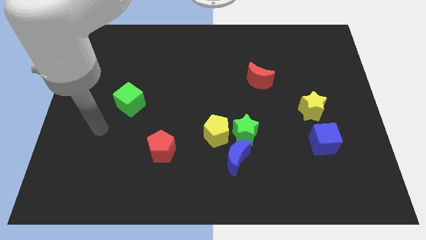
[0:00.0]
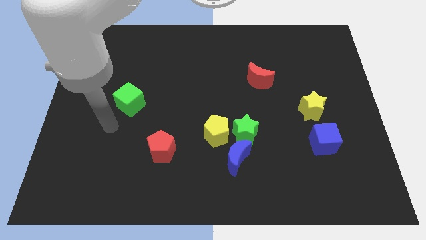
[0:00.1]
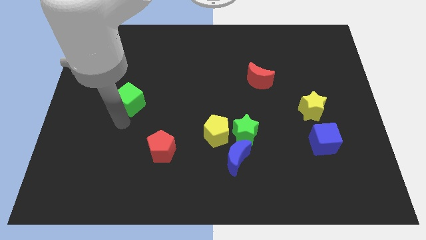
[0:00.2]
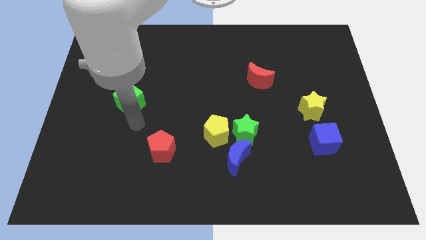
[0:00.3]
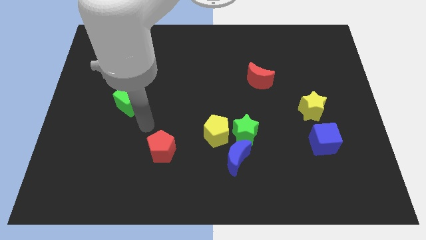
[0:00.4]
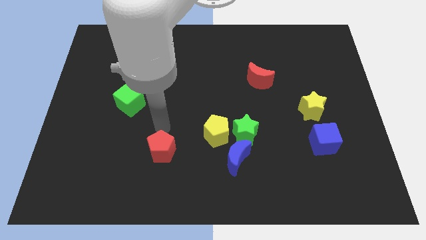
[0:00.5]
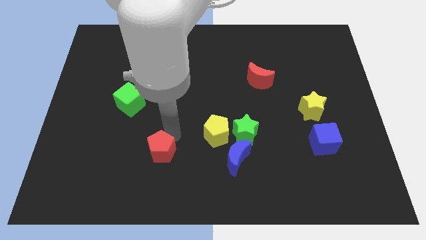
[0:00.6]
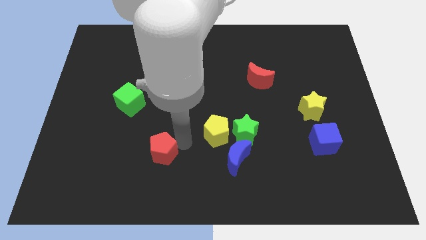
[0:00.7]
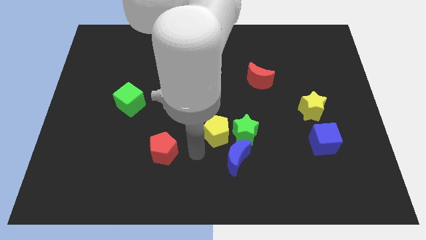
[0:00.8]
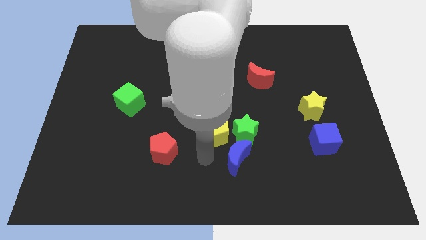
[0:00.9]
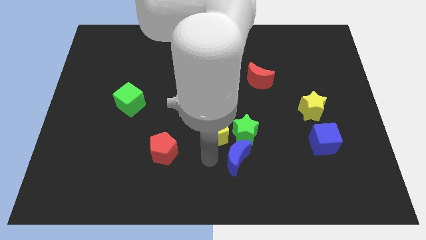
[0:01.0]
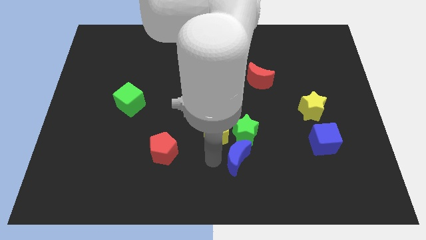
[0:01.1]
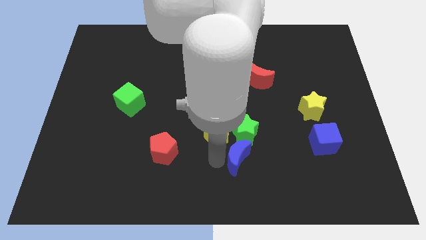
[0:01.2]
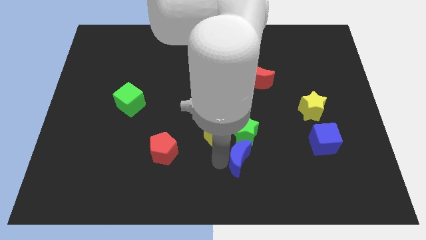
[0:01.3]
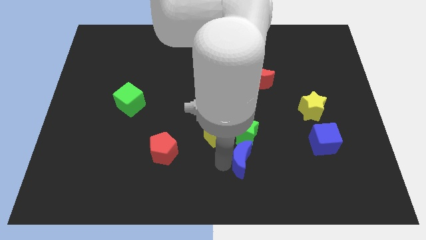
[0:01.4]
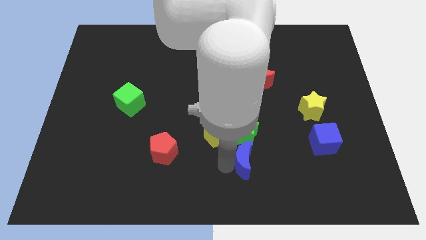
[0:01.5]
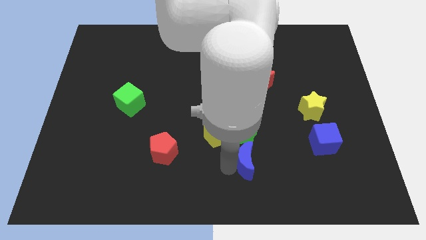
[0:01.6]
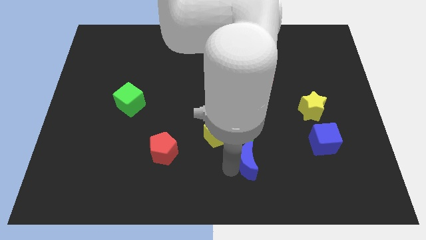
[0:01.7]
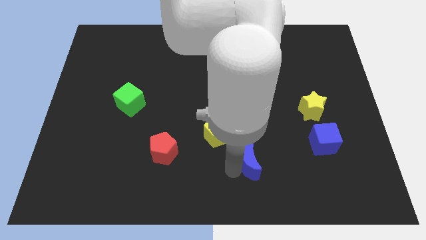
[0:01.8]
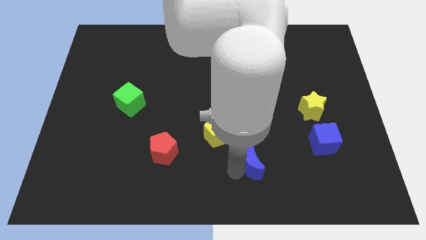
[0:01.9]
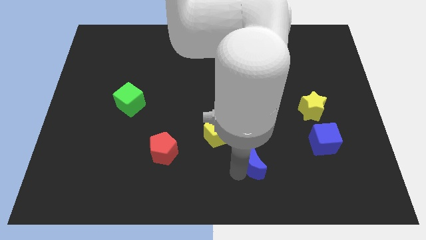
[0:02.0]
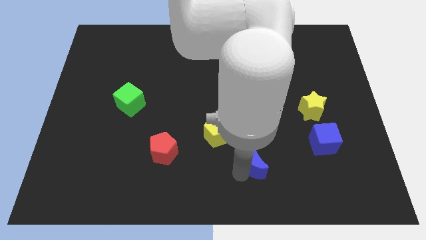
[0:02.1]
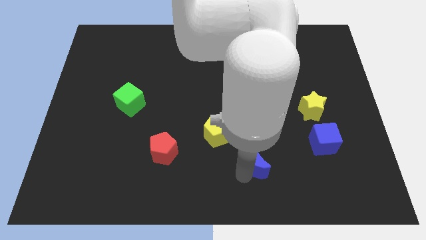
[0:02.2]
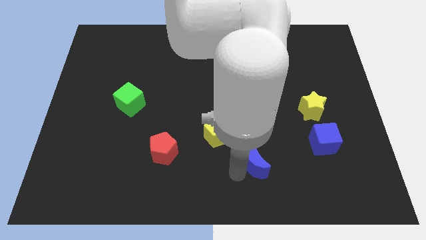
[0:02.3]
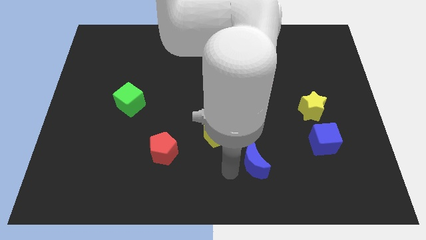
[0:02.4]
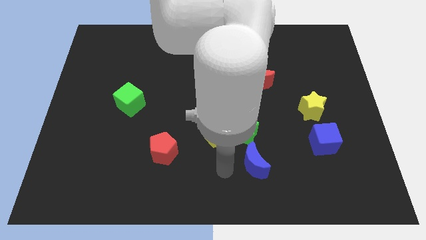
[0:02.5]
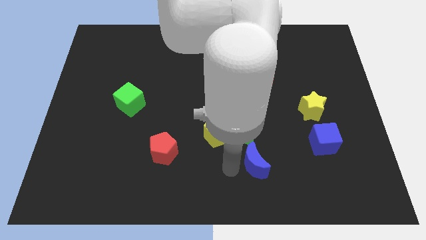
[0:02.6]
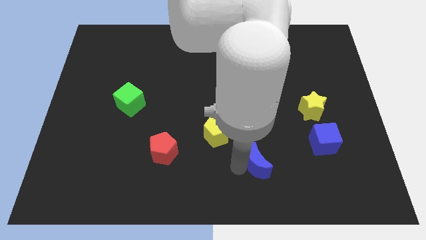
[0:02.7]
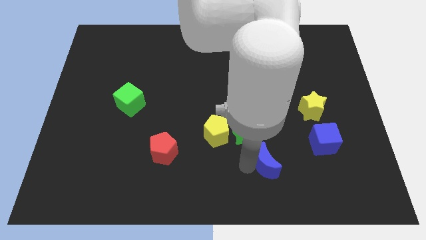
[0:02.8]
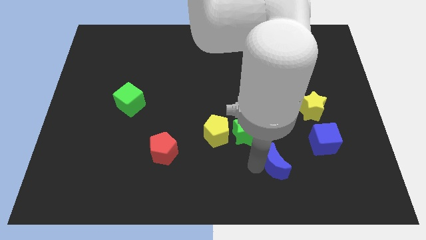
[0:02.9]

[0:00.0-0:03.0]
slightly push the blue moon right

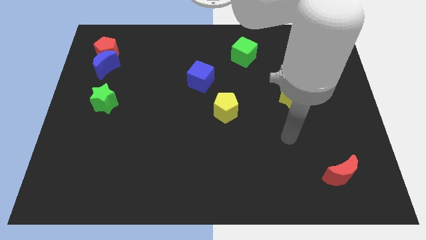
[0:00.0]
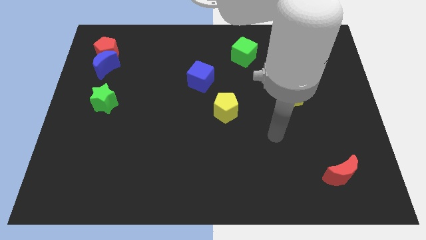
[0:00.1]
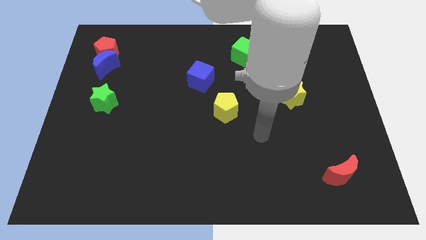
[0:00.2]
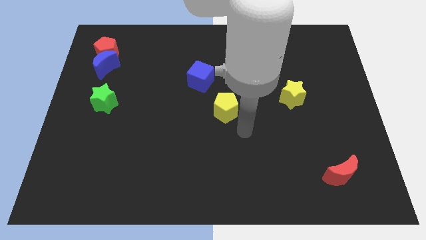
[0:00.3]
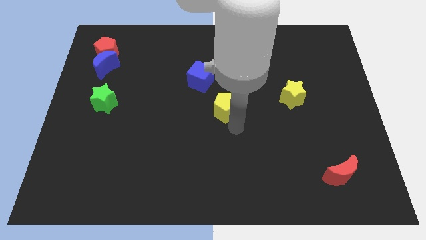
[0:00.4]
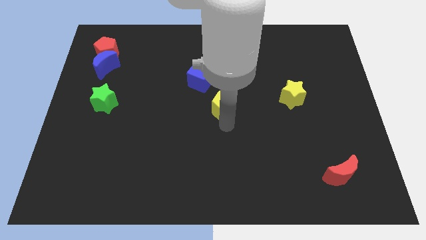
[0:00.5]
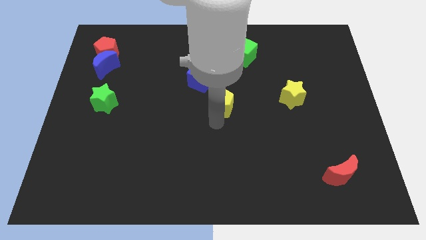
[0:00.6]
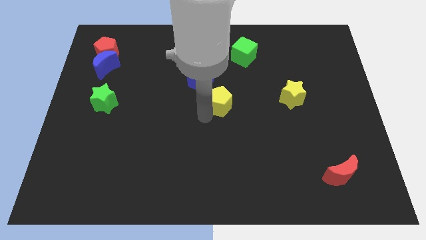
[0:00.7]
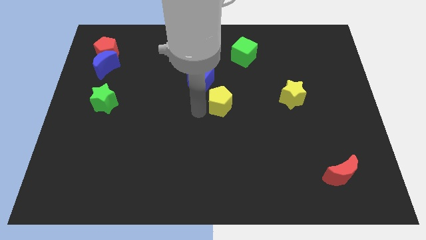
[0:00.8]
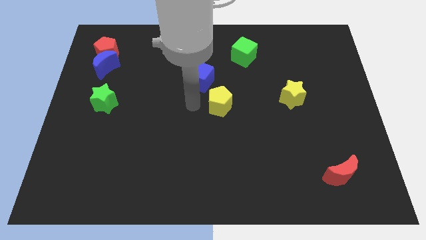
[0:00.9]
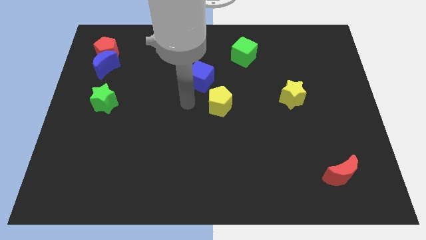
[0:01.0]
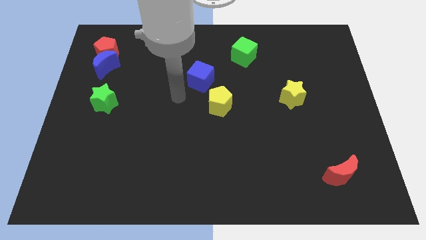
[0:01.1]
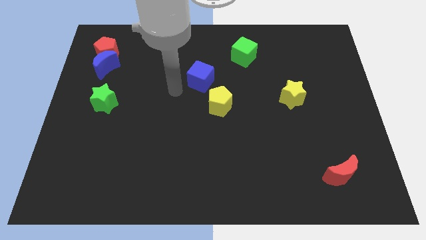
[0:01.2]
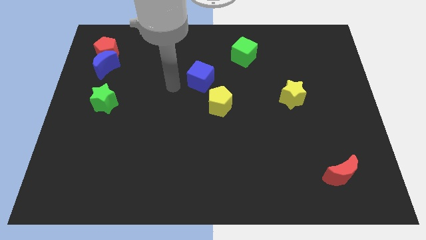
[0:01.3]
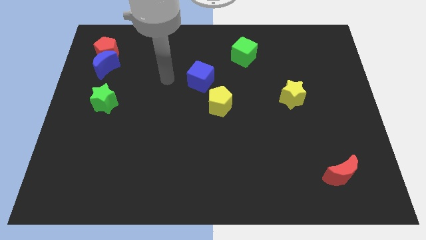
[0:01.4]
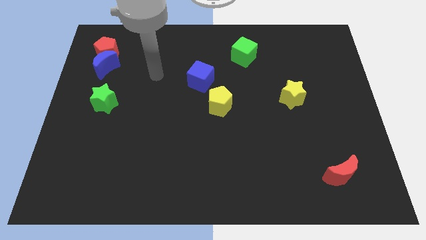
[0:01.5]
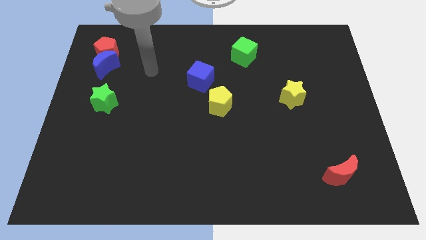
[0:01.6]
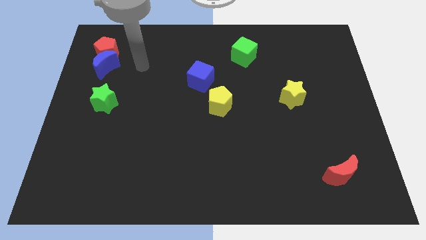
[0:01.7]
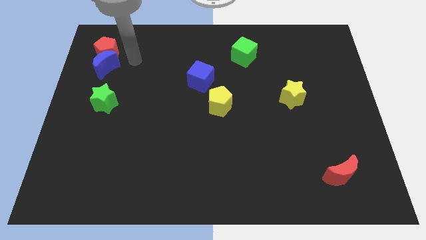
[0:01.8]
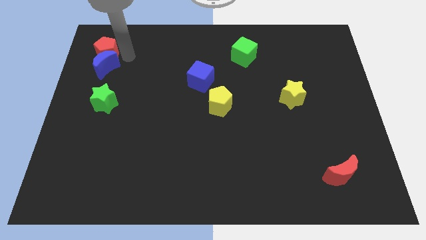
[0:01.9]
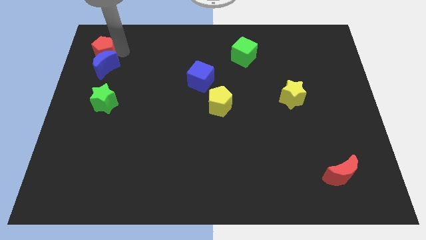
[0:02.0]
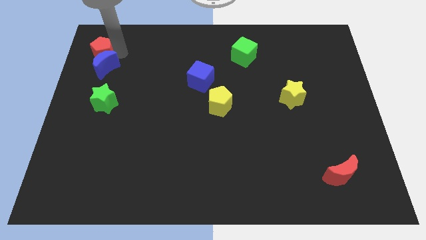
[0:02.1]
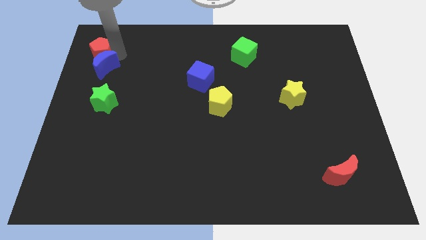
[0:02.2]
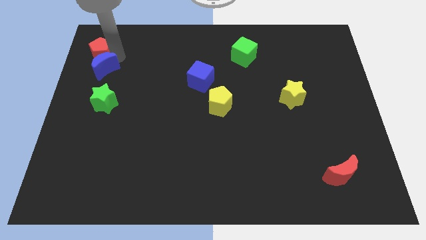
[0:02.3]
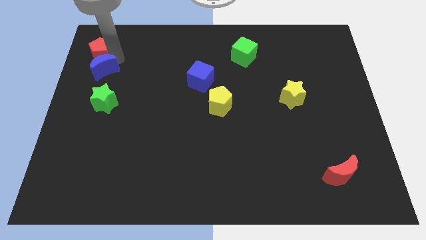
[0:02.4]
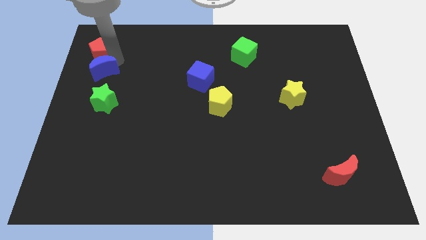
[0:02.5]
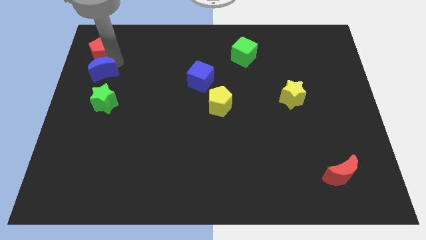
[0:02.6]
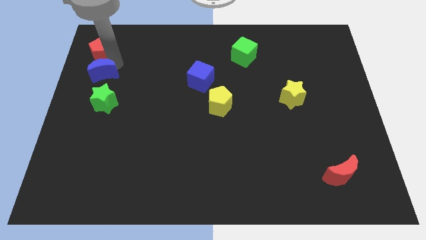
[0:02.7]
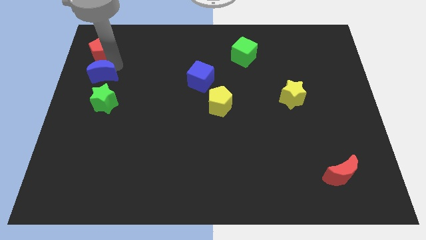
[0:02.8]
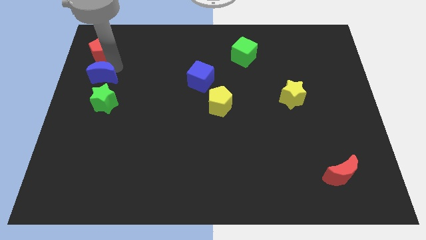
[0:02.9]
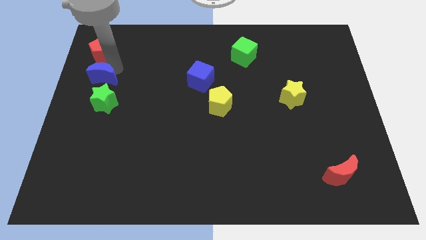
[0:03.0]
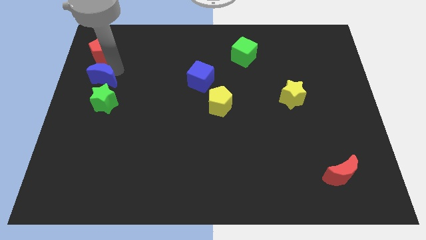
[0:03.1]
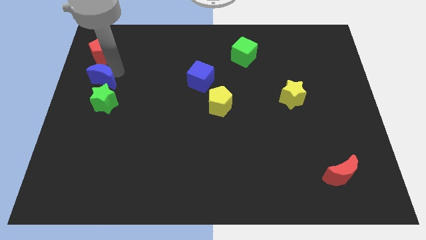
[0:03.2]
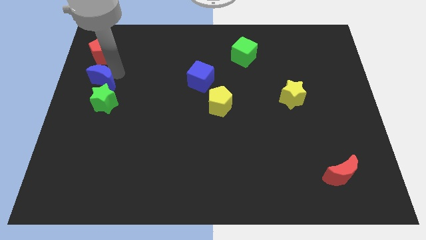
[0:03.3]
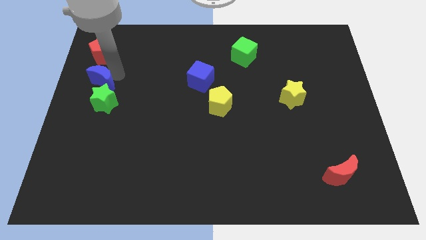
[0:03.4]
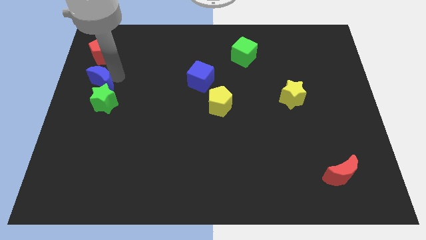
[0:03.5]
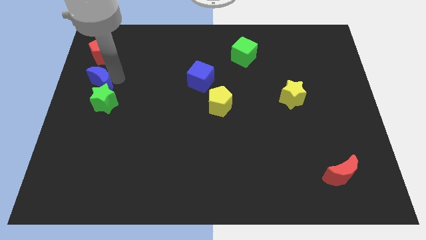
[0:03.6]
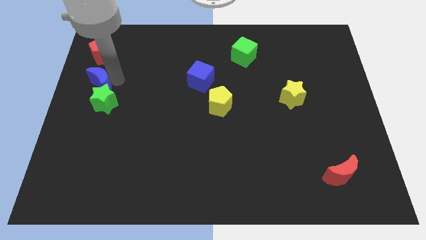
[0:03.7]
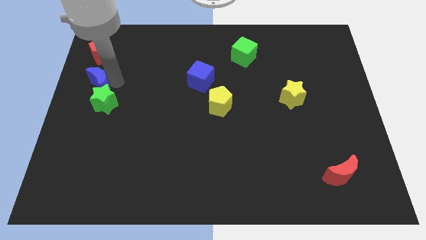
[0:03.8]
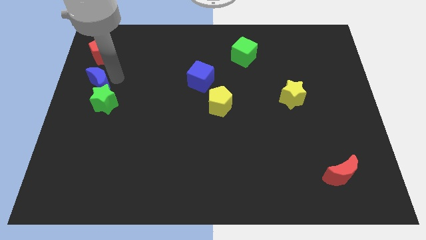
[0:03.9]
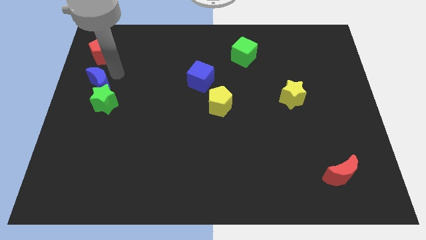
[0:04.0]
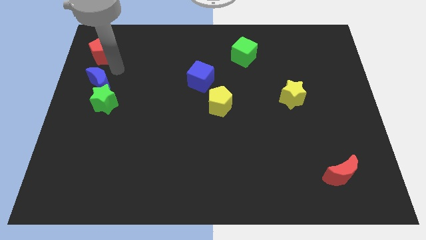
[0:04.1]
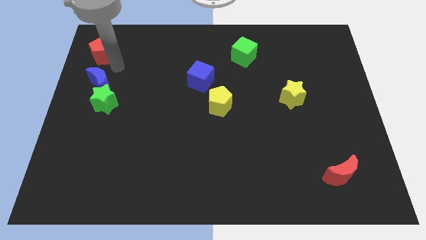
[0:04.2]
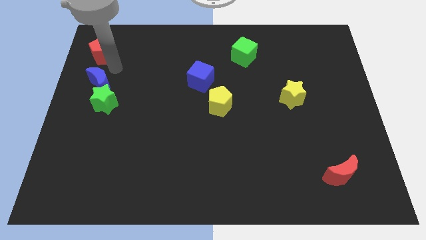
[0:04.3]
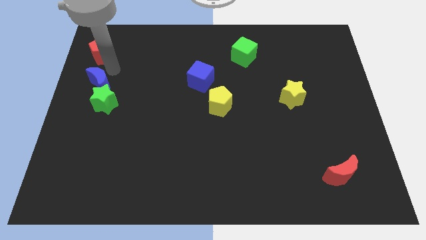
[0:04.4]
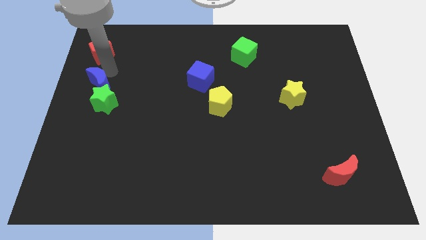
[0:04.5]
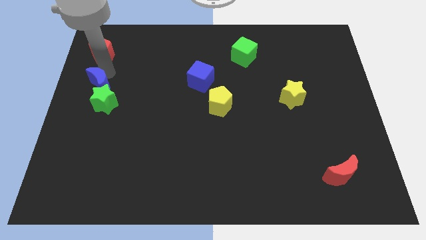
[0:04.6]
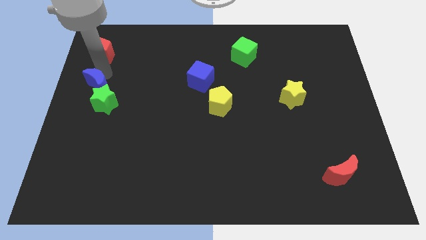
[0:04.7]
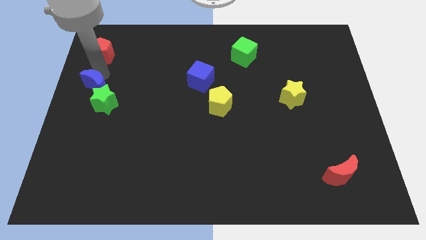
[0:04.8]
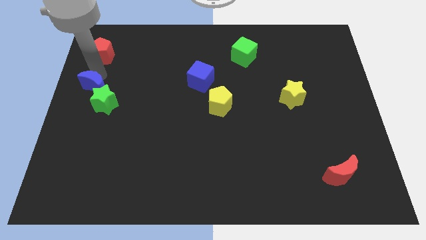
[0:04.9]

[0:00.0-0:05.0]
slightly push the blue moon downwards
